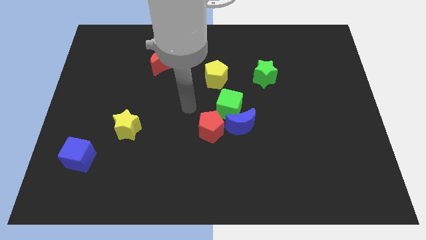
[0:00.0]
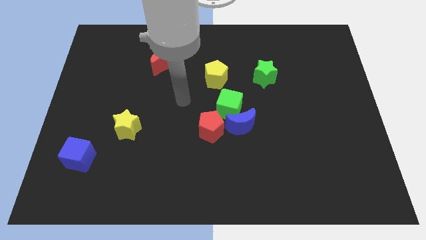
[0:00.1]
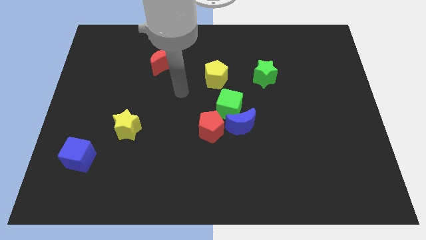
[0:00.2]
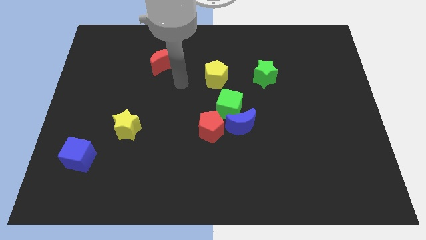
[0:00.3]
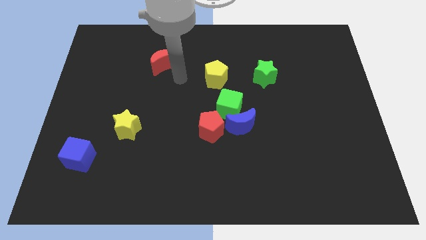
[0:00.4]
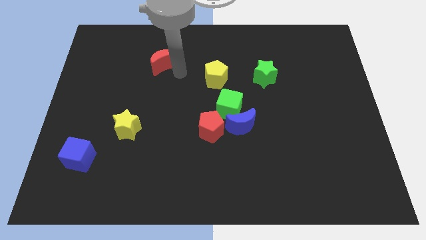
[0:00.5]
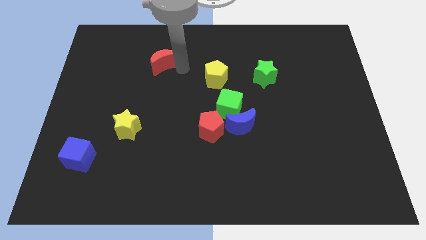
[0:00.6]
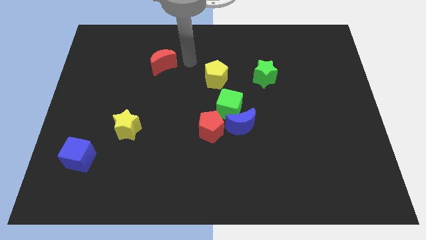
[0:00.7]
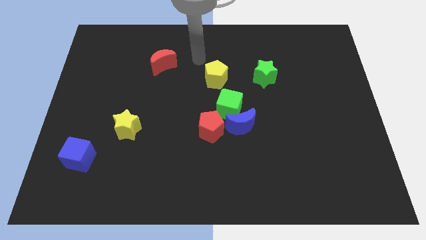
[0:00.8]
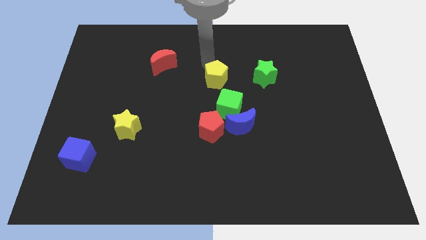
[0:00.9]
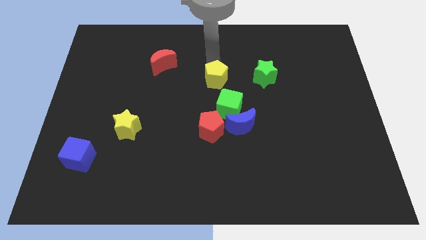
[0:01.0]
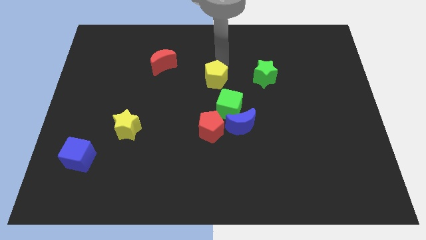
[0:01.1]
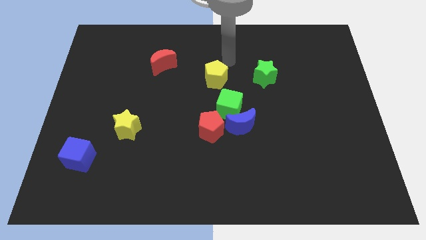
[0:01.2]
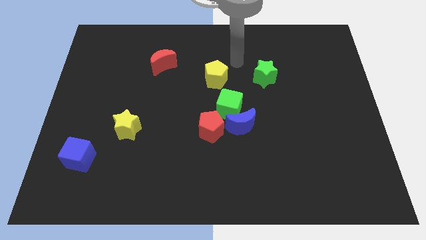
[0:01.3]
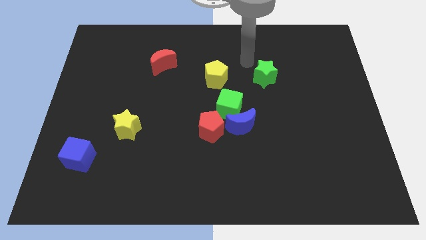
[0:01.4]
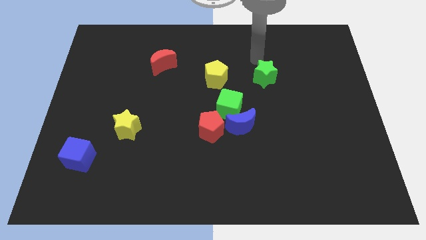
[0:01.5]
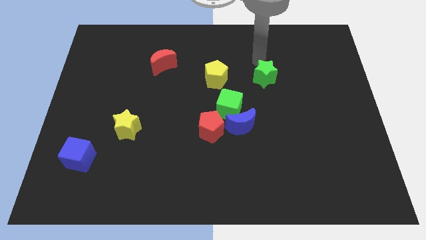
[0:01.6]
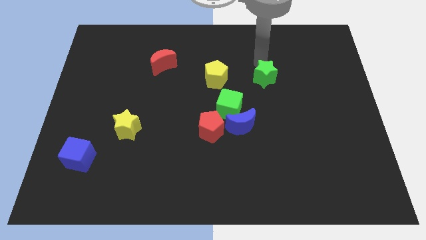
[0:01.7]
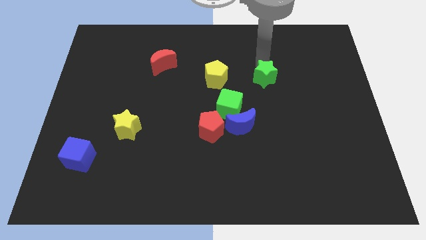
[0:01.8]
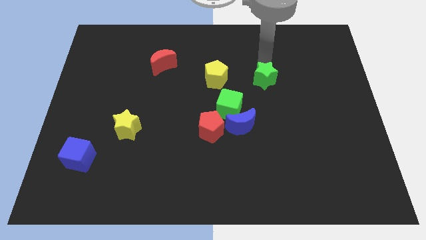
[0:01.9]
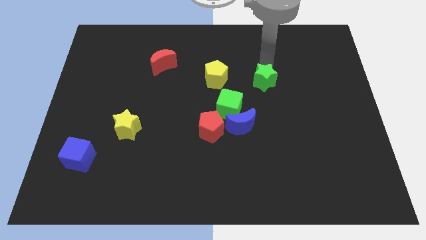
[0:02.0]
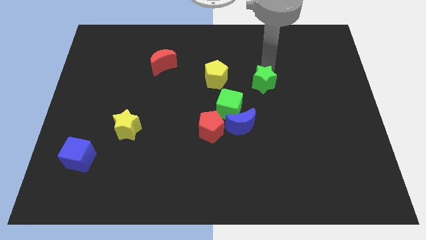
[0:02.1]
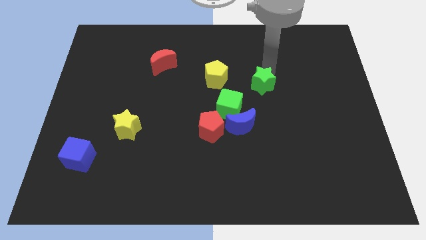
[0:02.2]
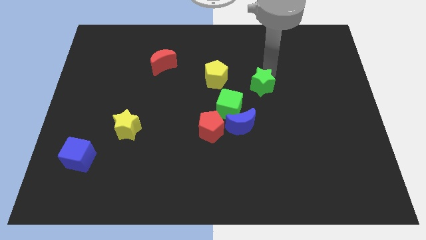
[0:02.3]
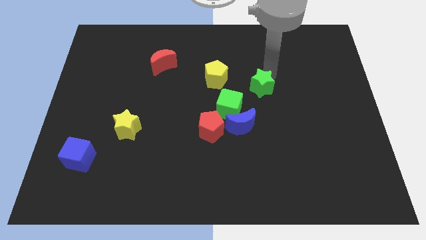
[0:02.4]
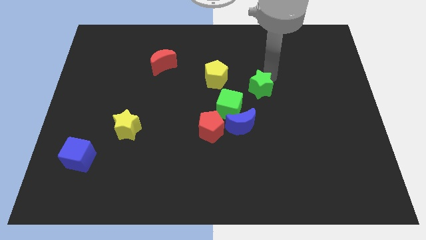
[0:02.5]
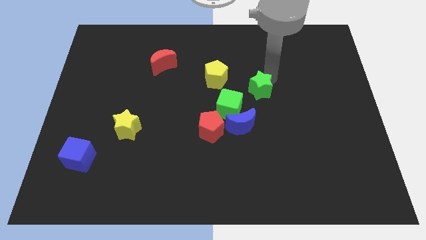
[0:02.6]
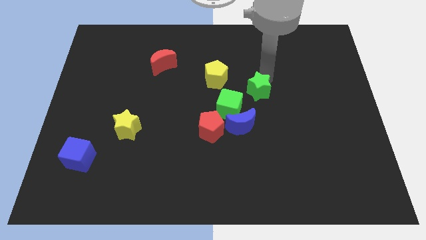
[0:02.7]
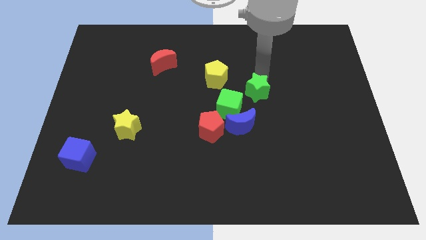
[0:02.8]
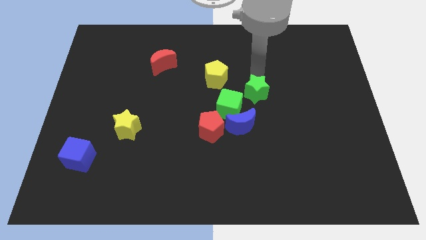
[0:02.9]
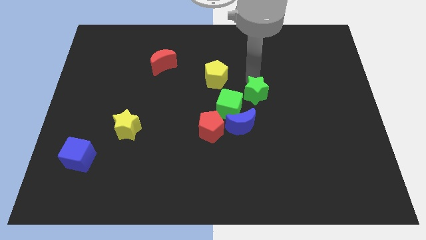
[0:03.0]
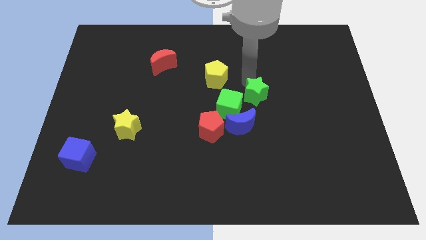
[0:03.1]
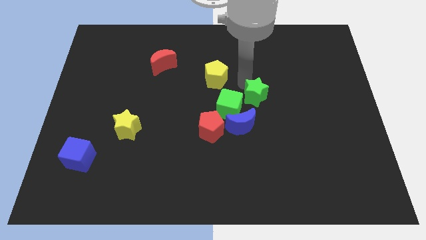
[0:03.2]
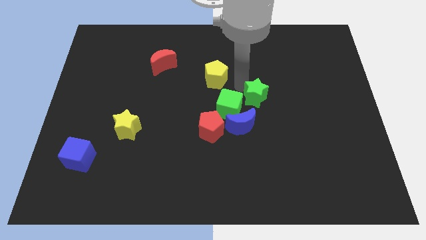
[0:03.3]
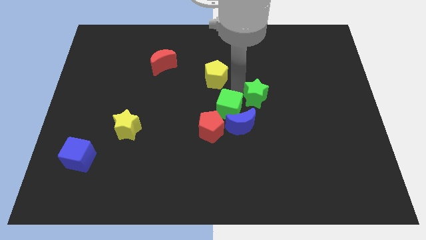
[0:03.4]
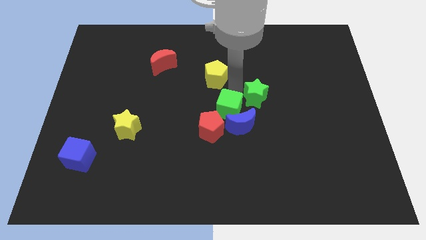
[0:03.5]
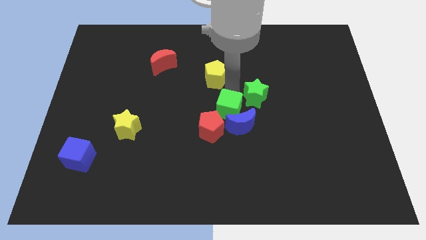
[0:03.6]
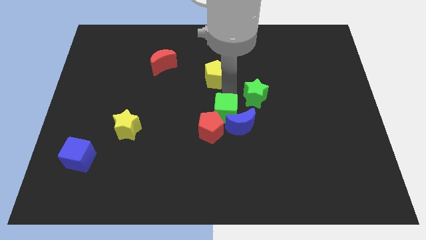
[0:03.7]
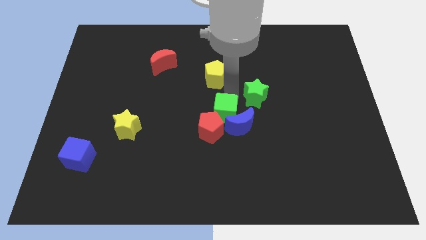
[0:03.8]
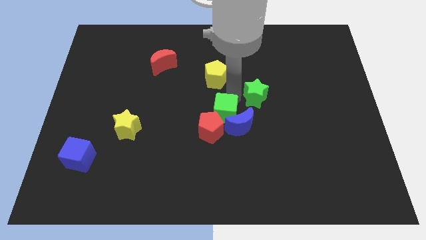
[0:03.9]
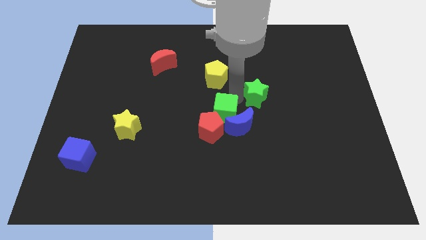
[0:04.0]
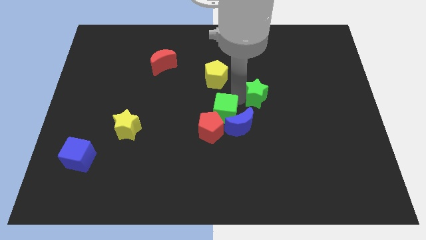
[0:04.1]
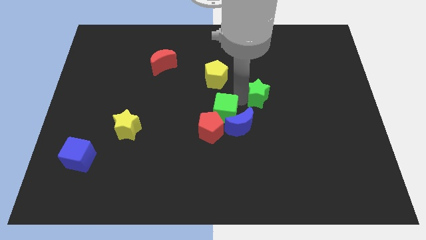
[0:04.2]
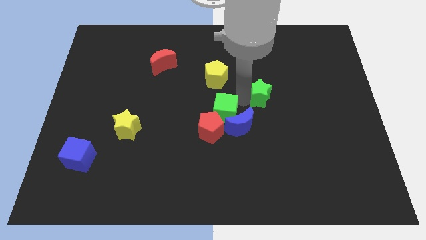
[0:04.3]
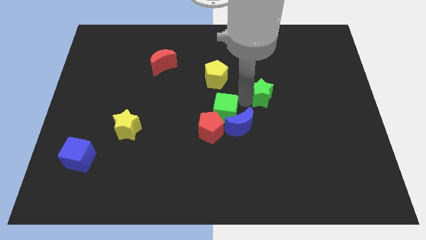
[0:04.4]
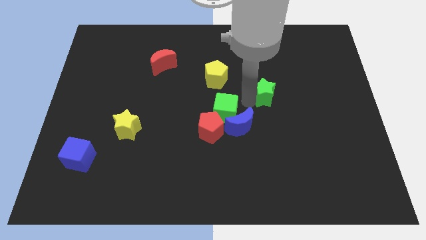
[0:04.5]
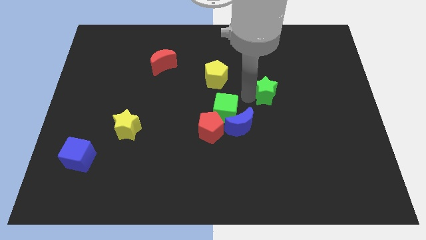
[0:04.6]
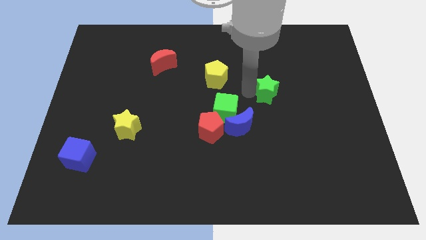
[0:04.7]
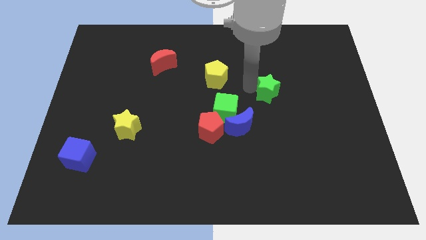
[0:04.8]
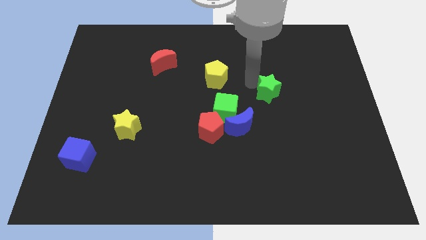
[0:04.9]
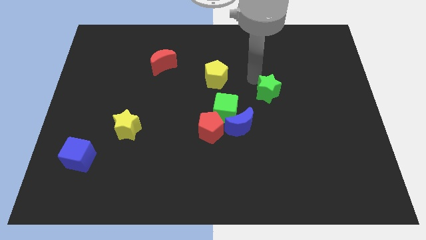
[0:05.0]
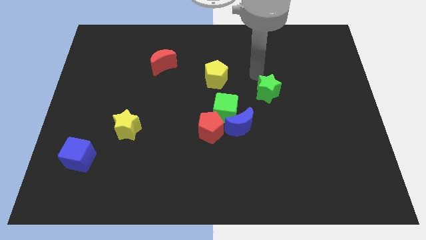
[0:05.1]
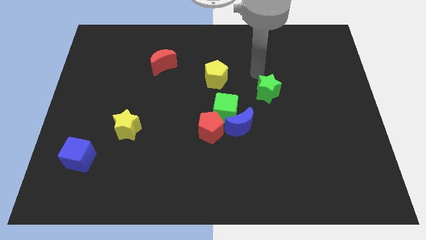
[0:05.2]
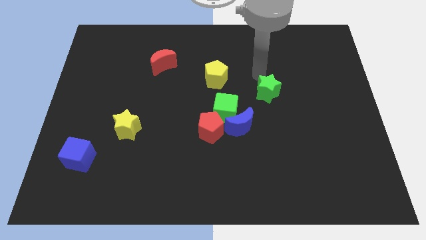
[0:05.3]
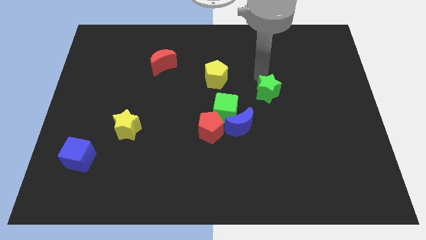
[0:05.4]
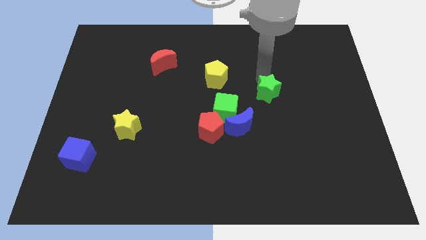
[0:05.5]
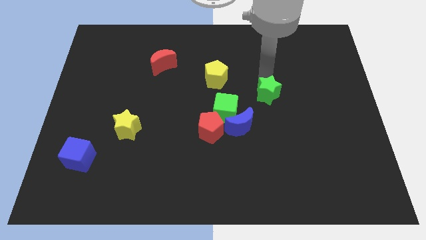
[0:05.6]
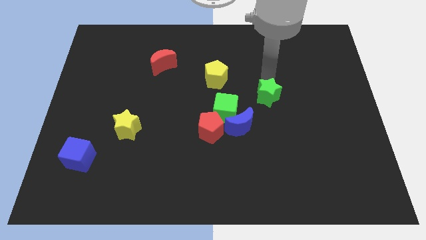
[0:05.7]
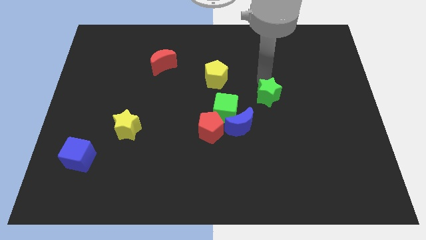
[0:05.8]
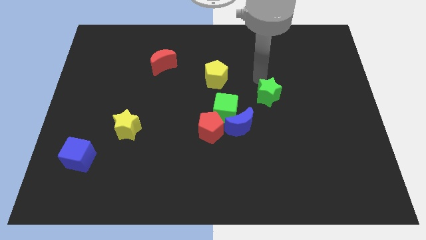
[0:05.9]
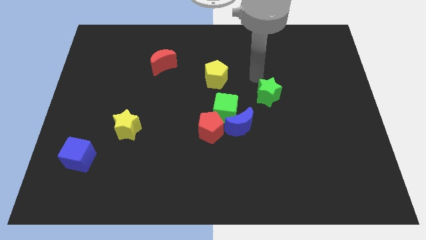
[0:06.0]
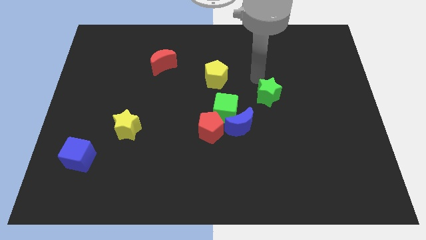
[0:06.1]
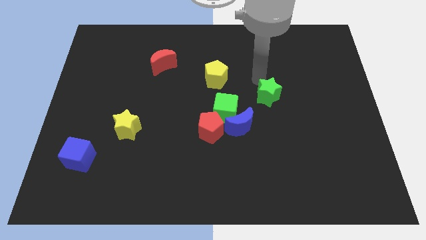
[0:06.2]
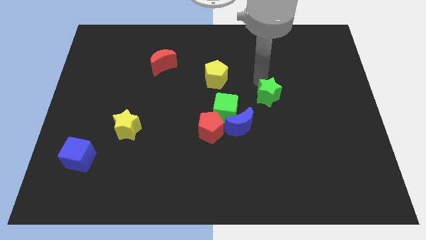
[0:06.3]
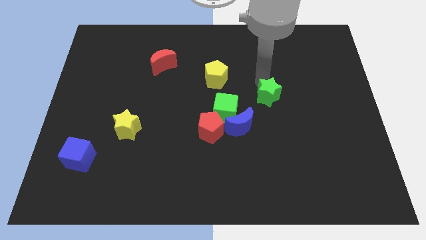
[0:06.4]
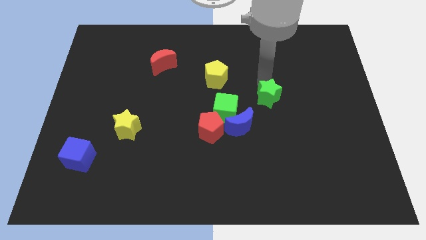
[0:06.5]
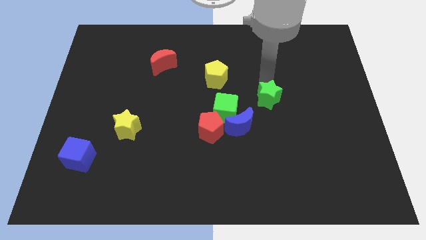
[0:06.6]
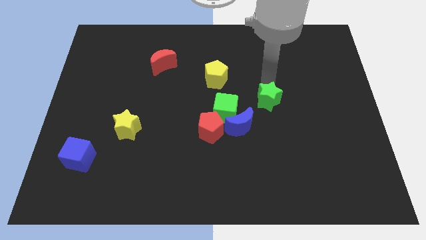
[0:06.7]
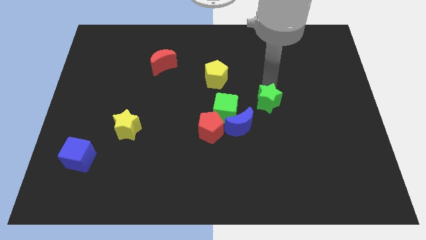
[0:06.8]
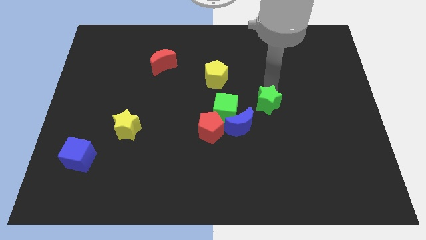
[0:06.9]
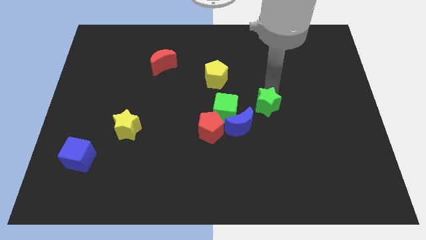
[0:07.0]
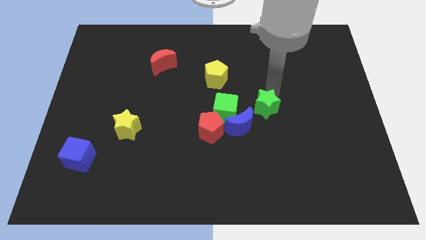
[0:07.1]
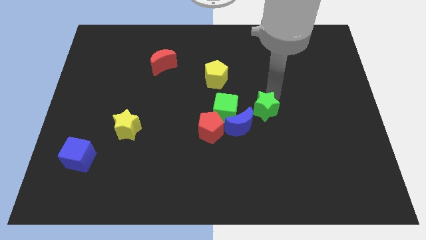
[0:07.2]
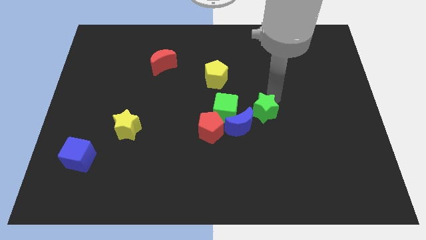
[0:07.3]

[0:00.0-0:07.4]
move the green star to the right side of the blue moon
